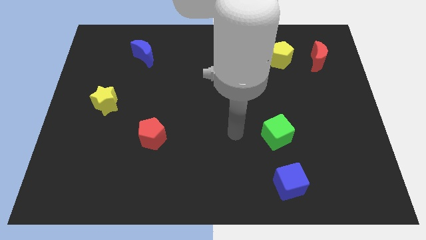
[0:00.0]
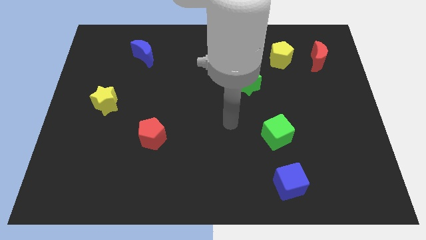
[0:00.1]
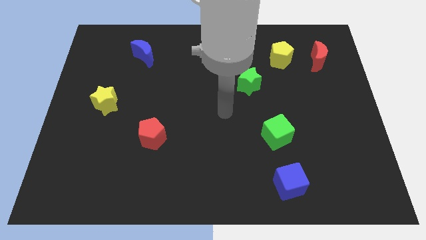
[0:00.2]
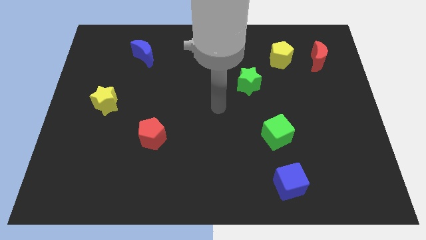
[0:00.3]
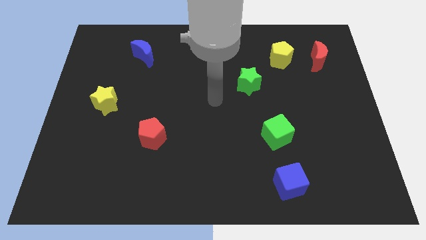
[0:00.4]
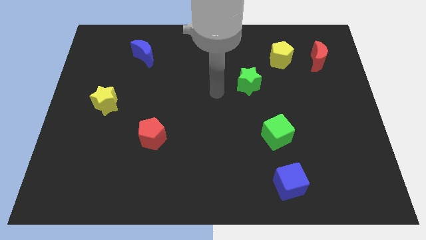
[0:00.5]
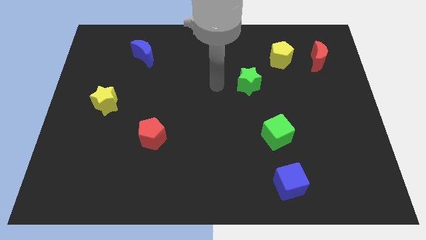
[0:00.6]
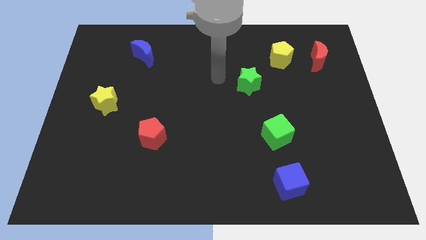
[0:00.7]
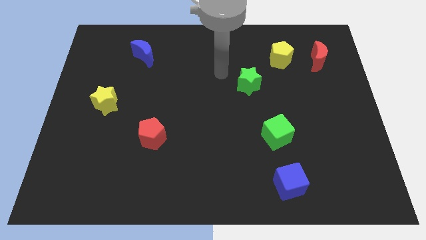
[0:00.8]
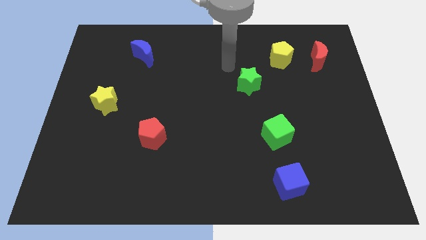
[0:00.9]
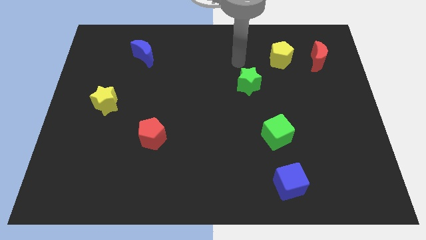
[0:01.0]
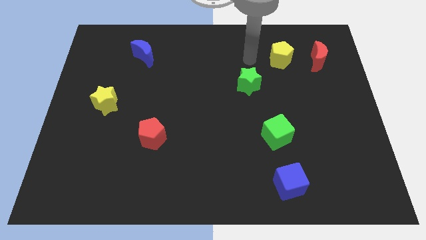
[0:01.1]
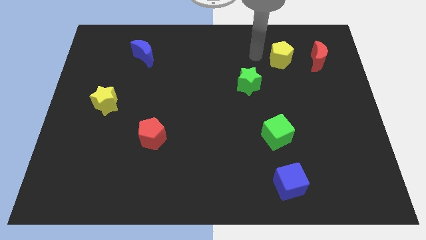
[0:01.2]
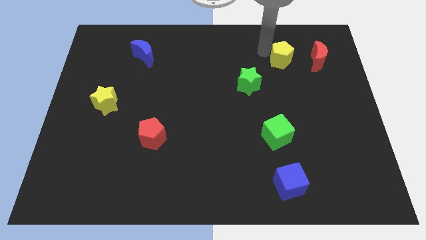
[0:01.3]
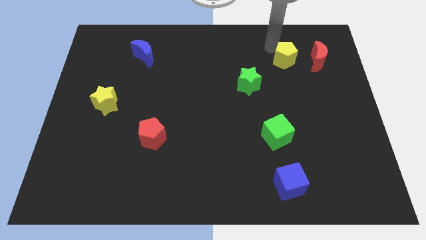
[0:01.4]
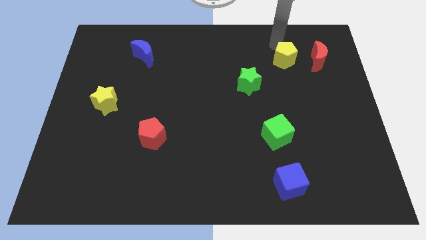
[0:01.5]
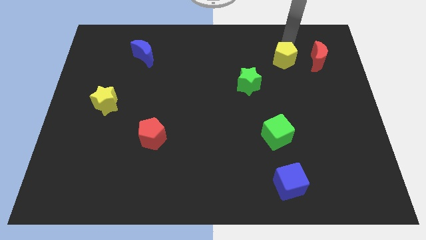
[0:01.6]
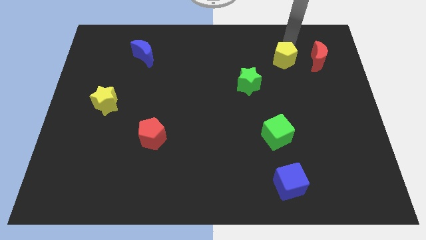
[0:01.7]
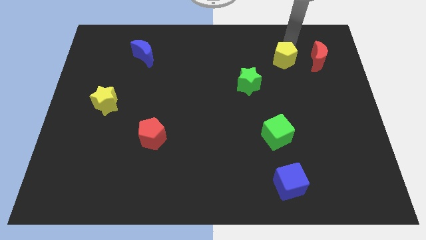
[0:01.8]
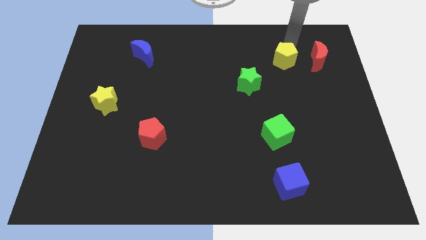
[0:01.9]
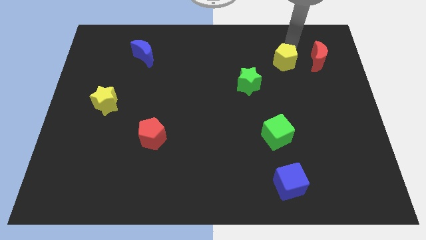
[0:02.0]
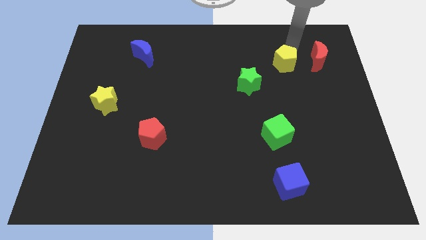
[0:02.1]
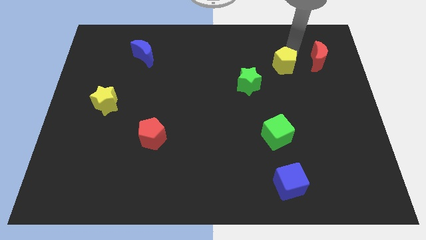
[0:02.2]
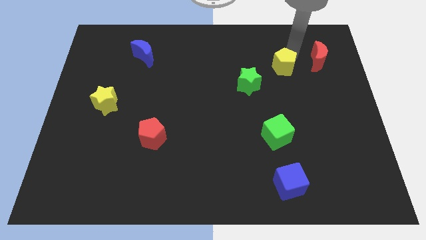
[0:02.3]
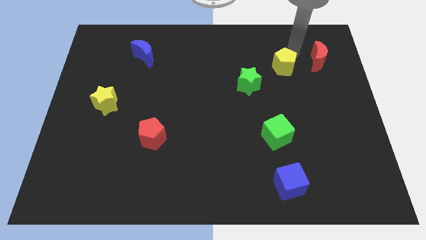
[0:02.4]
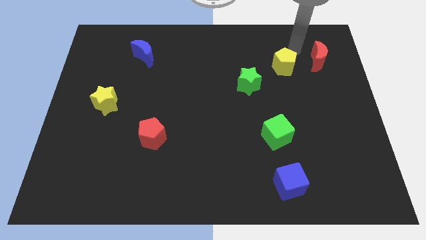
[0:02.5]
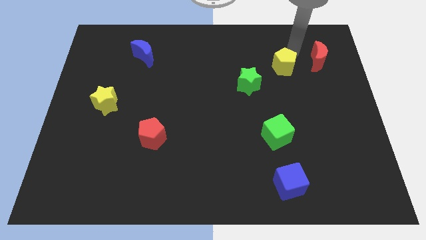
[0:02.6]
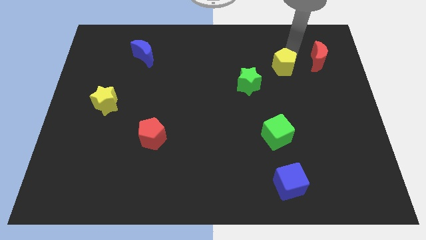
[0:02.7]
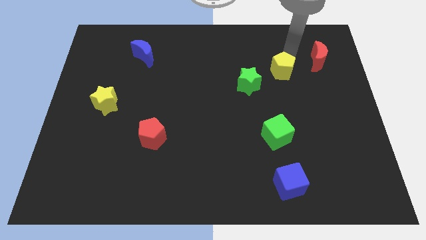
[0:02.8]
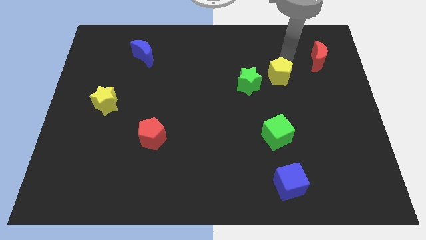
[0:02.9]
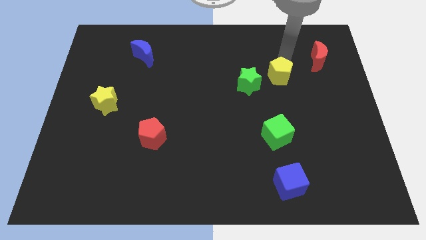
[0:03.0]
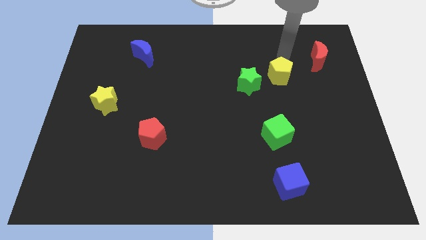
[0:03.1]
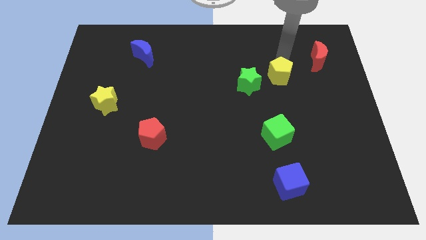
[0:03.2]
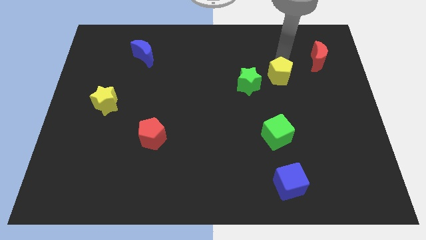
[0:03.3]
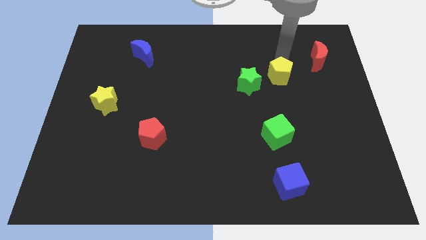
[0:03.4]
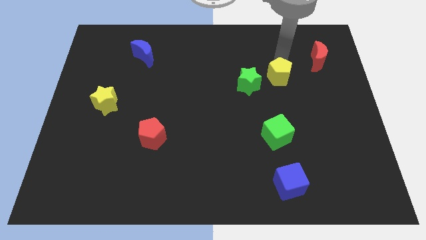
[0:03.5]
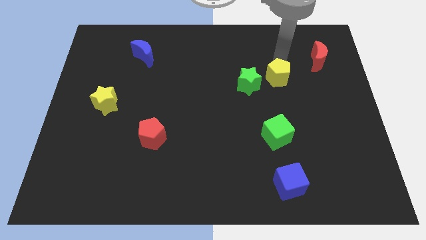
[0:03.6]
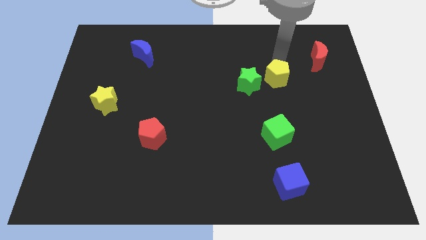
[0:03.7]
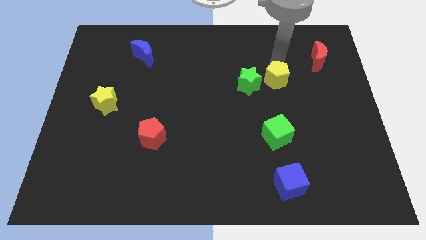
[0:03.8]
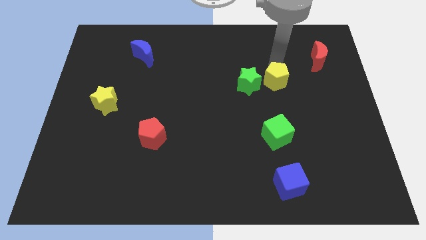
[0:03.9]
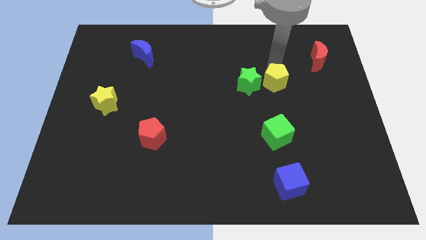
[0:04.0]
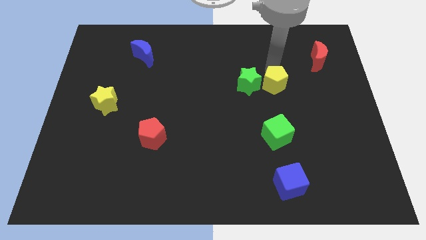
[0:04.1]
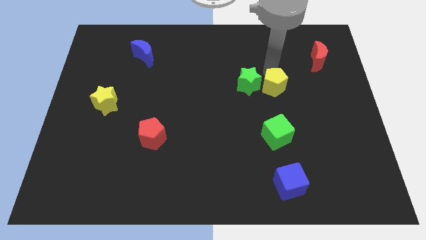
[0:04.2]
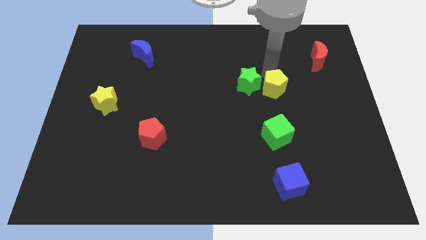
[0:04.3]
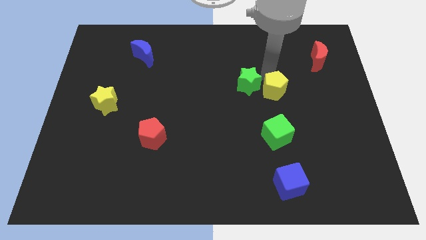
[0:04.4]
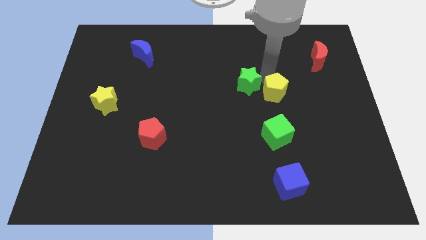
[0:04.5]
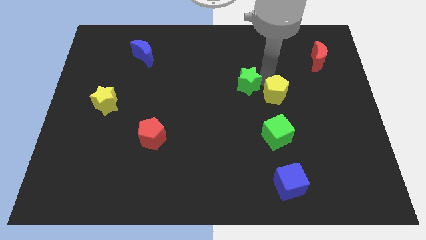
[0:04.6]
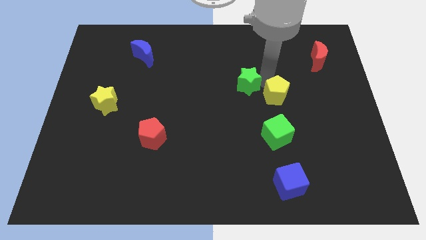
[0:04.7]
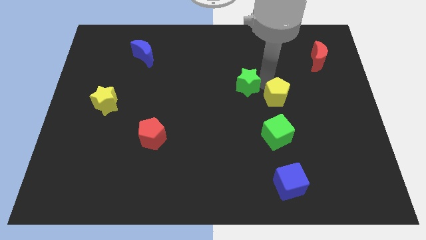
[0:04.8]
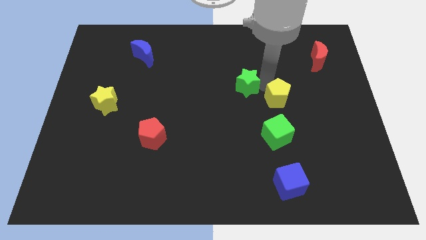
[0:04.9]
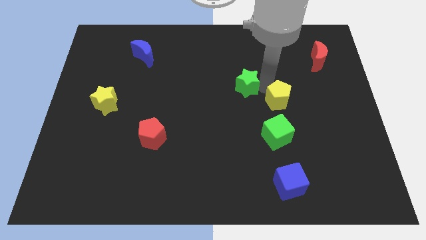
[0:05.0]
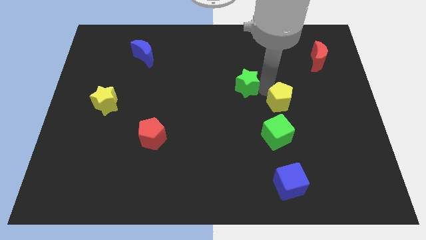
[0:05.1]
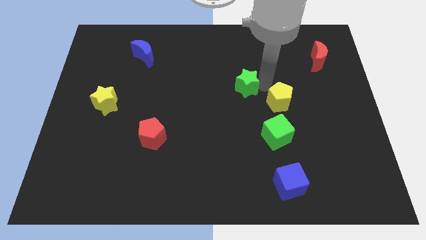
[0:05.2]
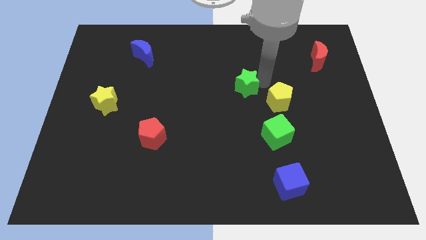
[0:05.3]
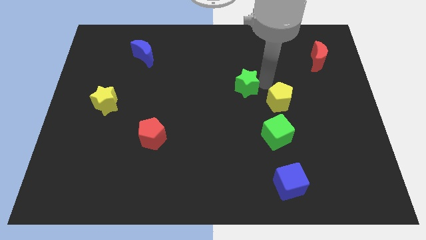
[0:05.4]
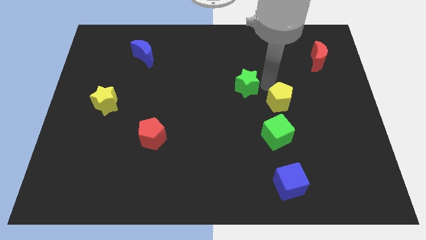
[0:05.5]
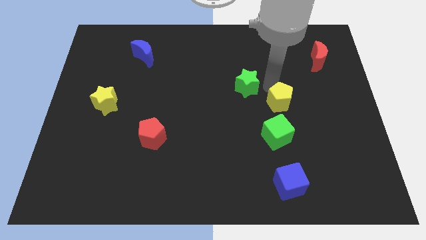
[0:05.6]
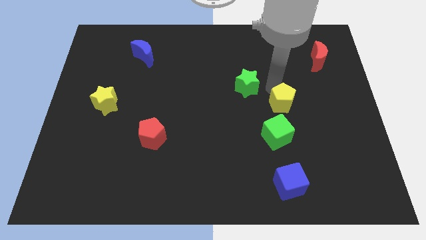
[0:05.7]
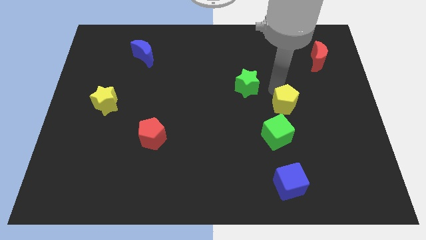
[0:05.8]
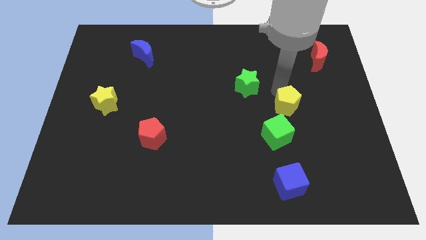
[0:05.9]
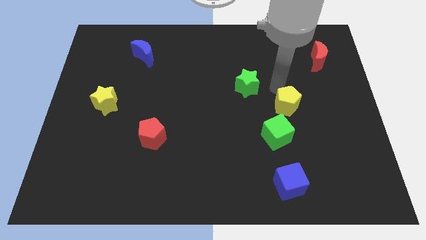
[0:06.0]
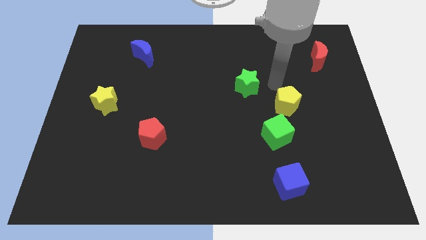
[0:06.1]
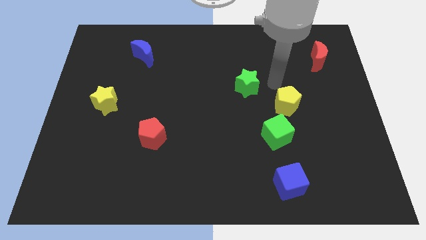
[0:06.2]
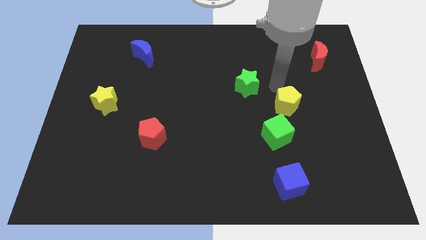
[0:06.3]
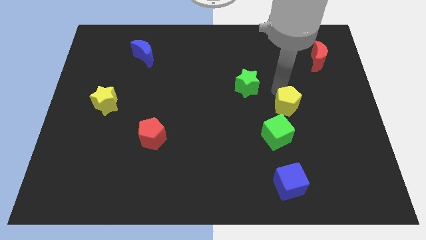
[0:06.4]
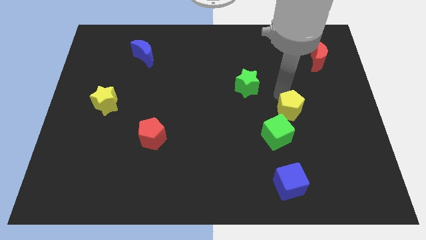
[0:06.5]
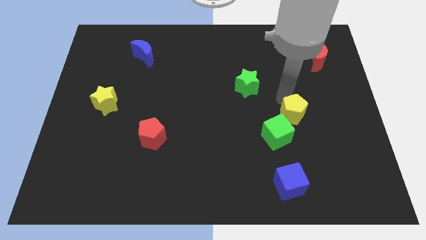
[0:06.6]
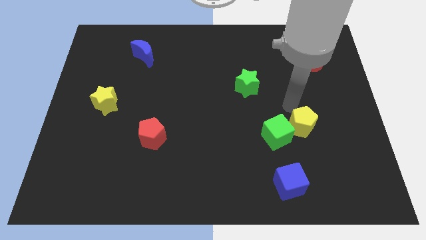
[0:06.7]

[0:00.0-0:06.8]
push the yellow pentagon downwards

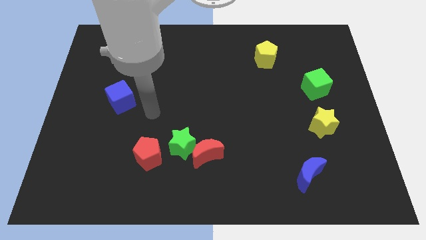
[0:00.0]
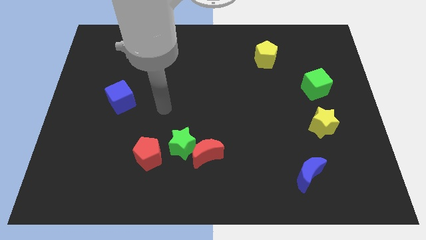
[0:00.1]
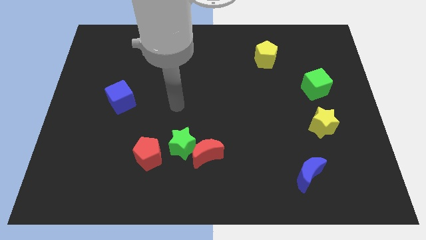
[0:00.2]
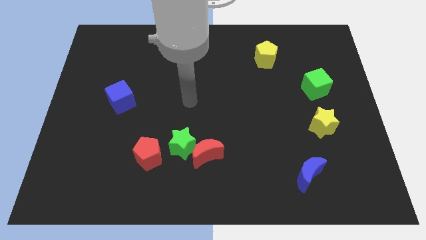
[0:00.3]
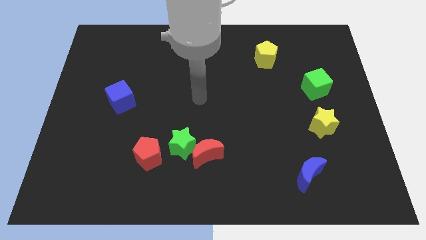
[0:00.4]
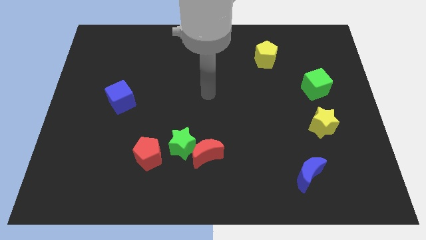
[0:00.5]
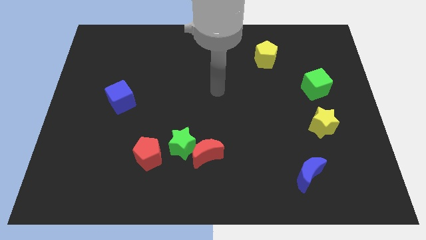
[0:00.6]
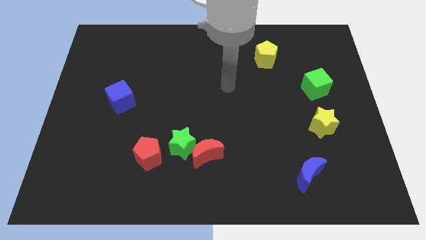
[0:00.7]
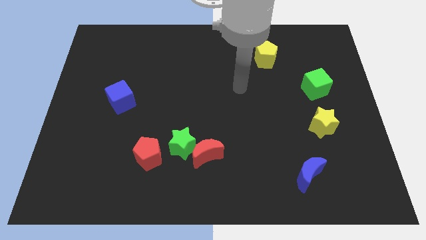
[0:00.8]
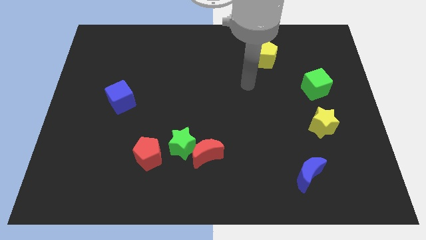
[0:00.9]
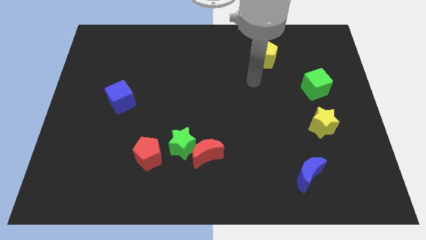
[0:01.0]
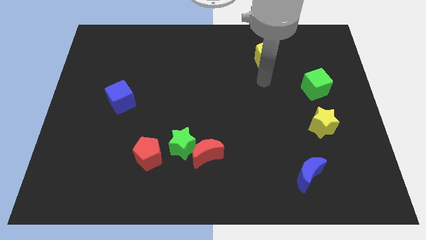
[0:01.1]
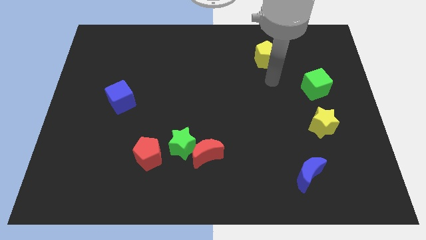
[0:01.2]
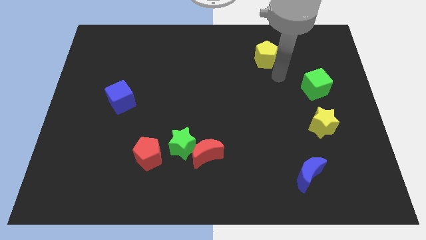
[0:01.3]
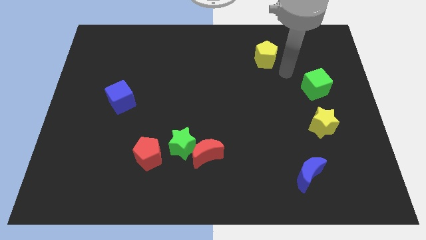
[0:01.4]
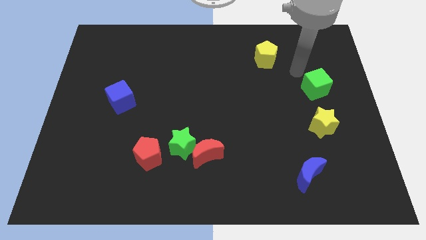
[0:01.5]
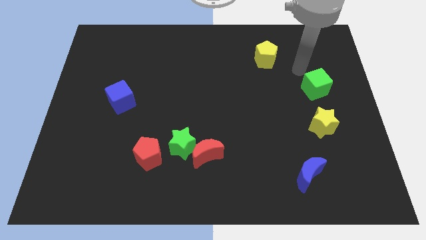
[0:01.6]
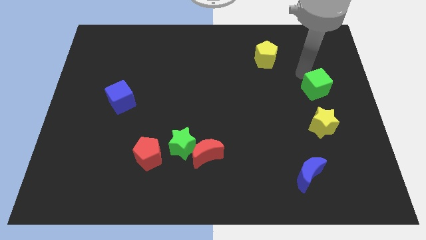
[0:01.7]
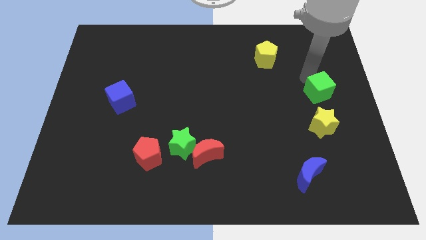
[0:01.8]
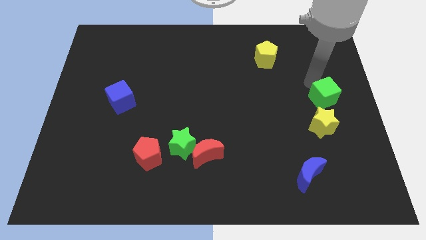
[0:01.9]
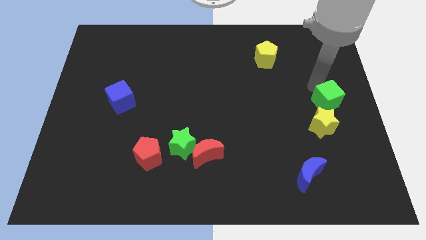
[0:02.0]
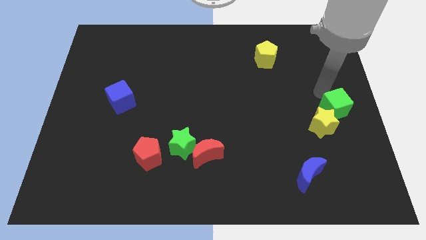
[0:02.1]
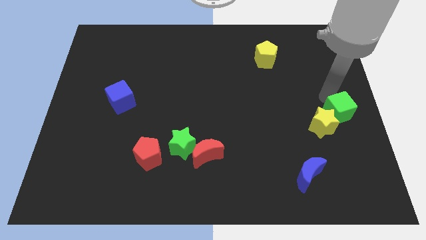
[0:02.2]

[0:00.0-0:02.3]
push the green cube downwards somewhat
